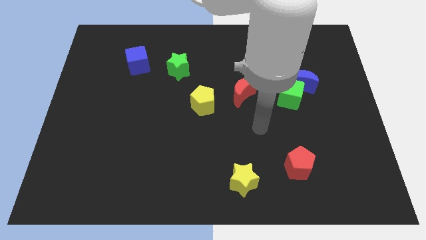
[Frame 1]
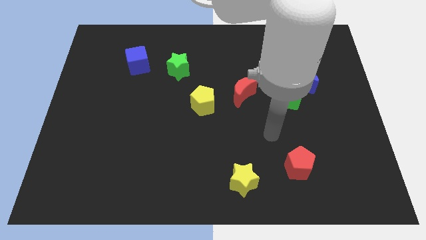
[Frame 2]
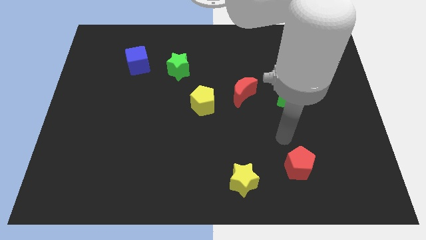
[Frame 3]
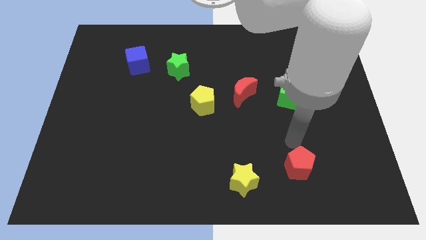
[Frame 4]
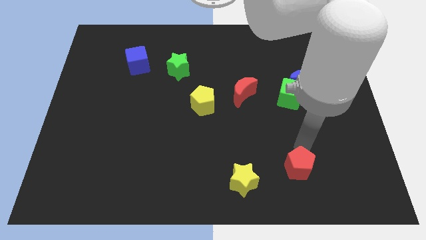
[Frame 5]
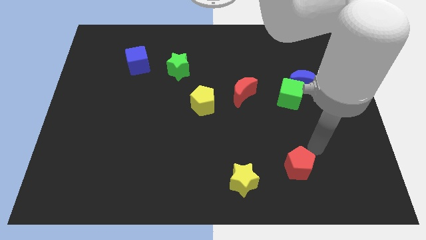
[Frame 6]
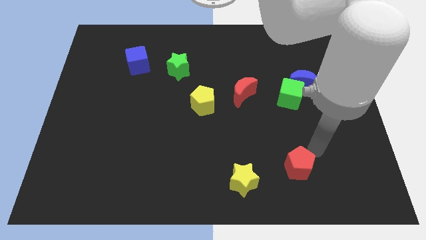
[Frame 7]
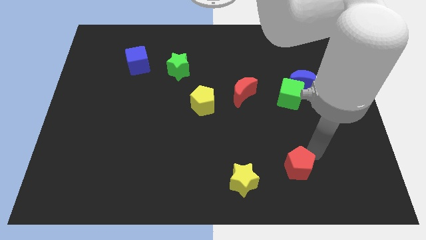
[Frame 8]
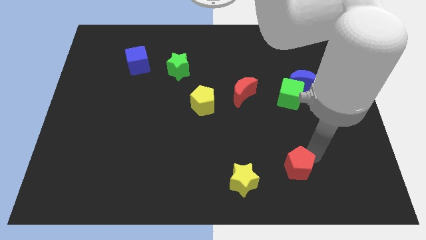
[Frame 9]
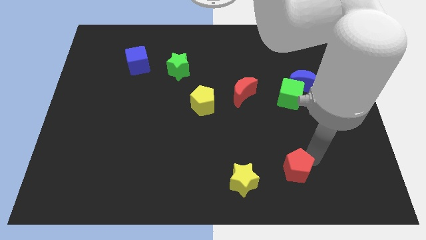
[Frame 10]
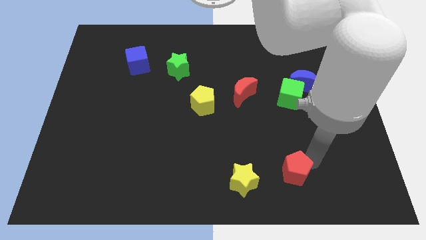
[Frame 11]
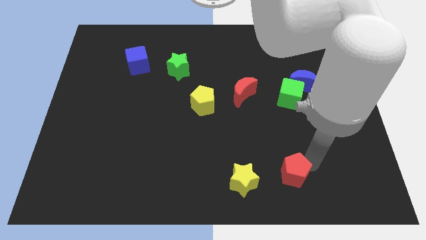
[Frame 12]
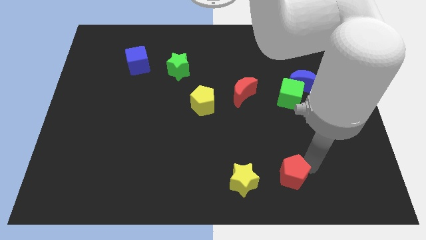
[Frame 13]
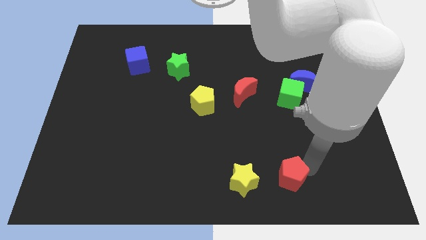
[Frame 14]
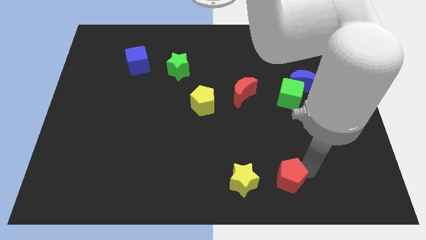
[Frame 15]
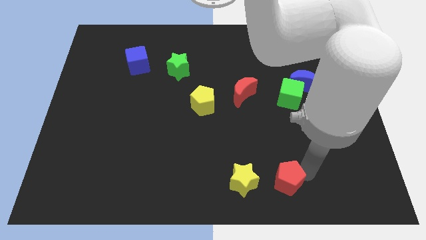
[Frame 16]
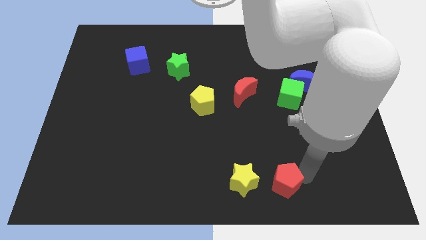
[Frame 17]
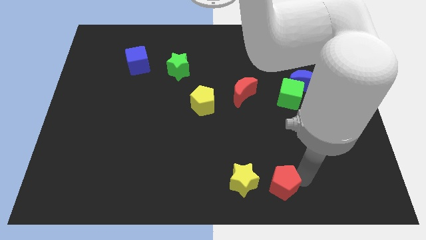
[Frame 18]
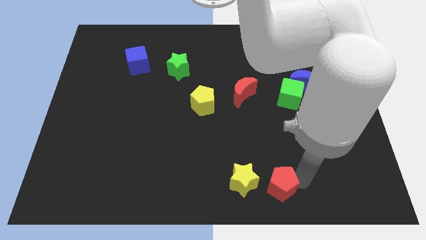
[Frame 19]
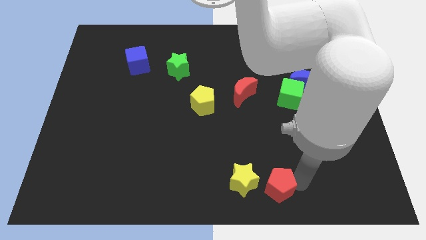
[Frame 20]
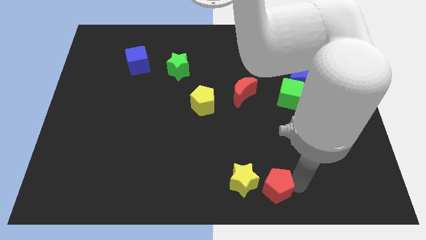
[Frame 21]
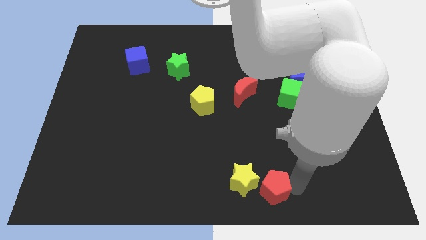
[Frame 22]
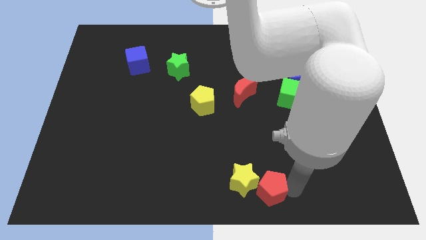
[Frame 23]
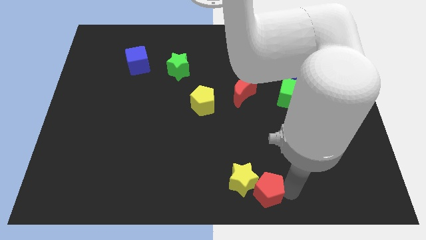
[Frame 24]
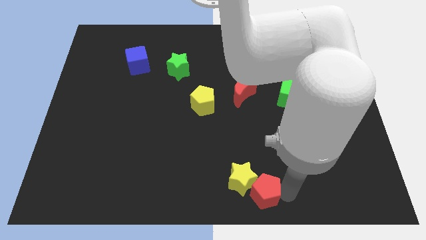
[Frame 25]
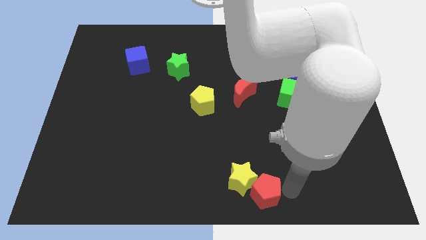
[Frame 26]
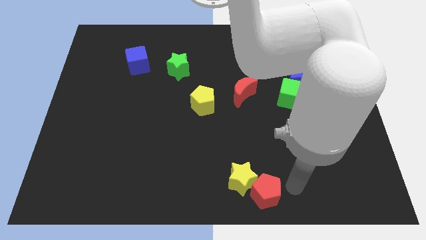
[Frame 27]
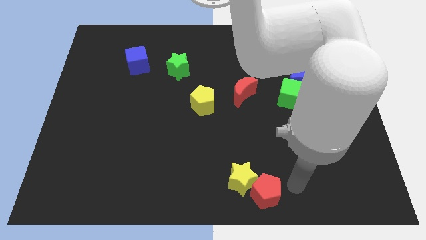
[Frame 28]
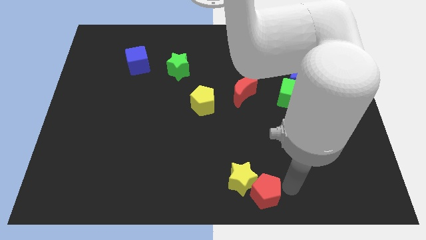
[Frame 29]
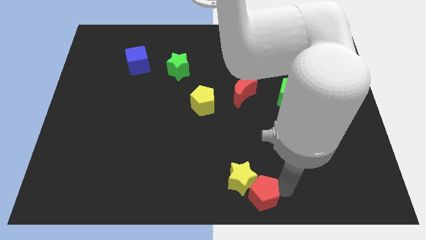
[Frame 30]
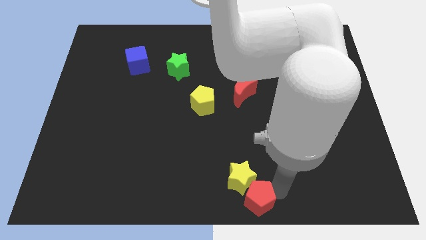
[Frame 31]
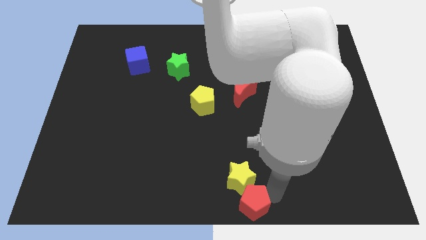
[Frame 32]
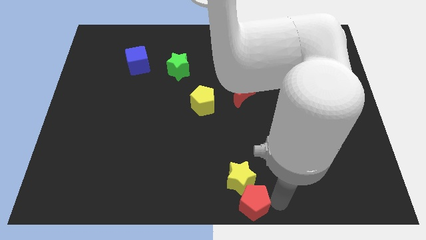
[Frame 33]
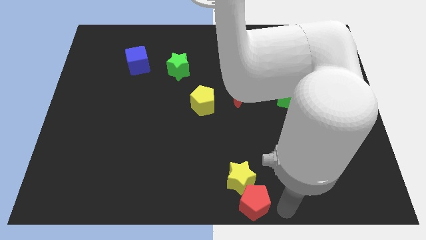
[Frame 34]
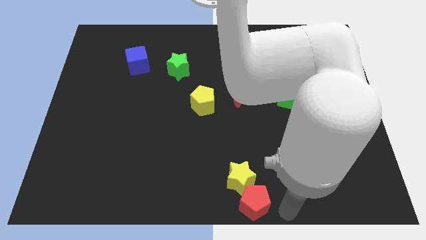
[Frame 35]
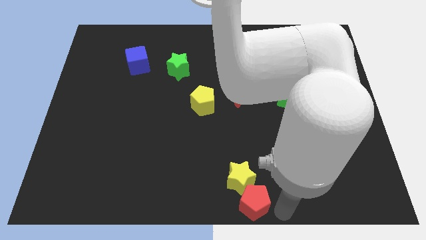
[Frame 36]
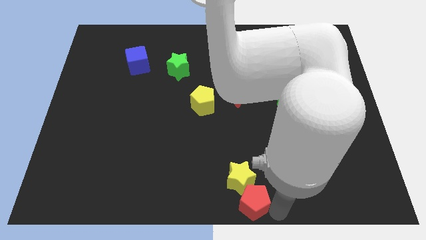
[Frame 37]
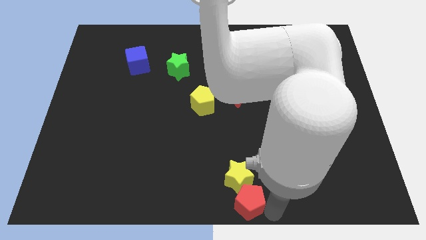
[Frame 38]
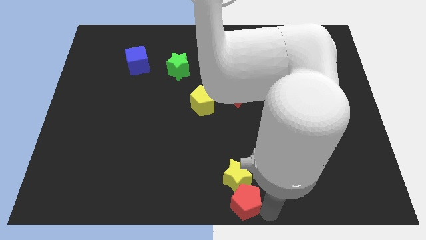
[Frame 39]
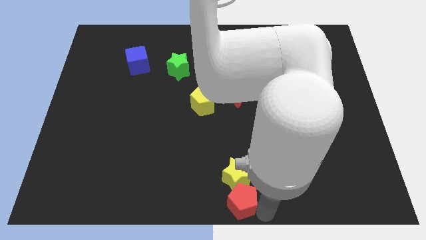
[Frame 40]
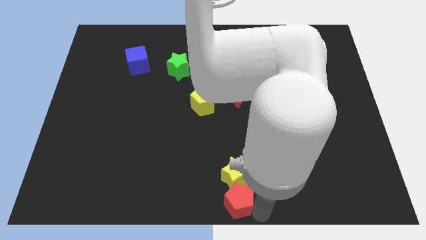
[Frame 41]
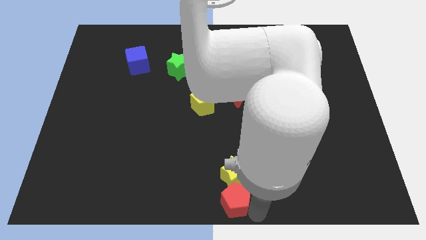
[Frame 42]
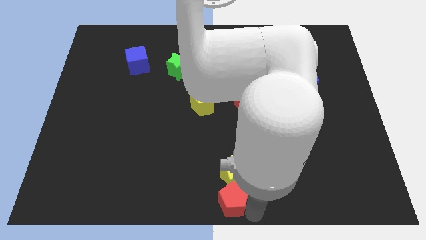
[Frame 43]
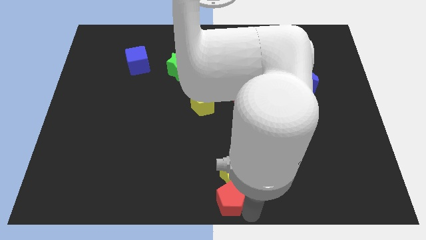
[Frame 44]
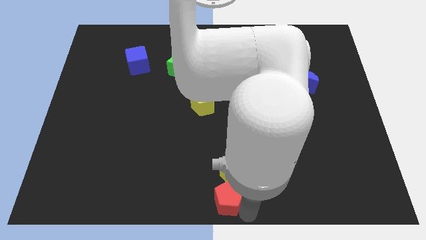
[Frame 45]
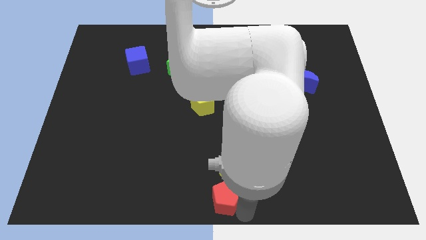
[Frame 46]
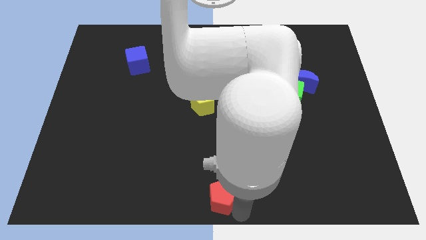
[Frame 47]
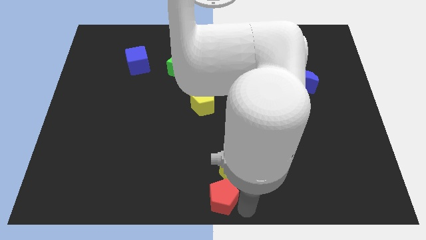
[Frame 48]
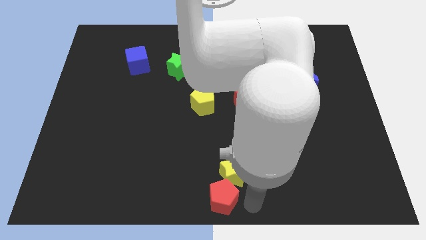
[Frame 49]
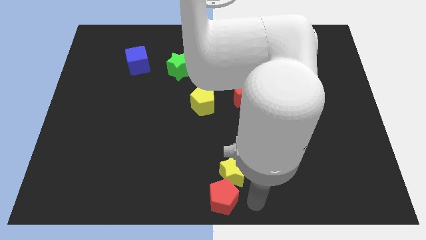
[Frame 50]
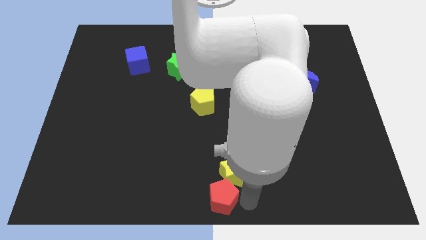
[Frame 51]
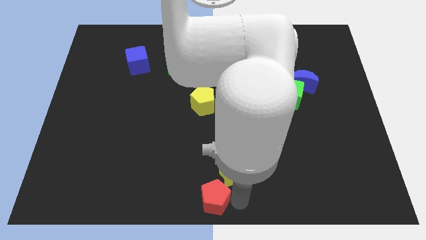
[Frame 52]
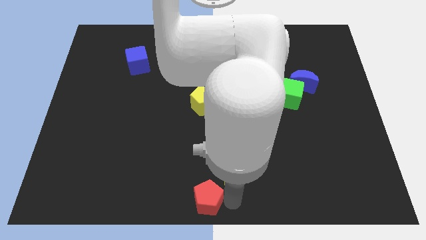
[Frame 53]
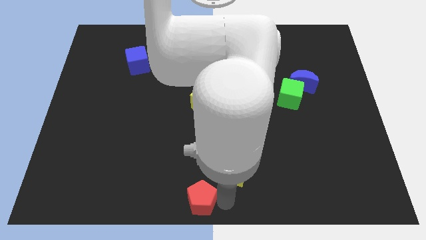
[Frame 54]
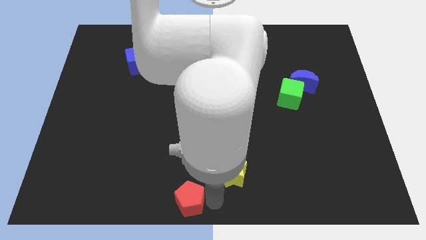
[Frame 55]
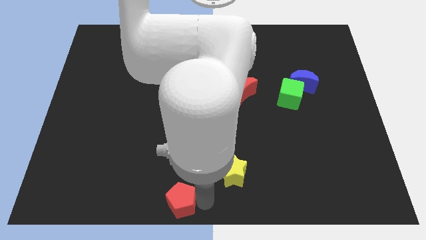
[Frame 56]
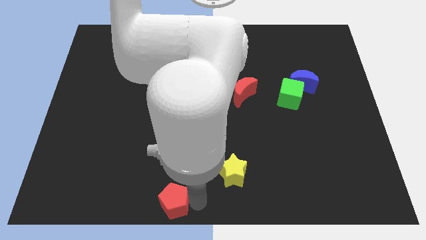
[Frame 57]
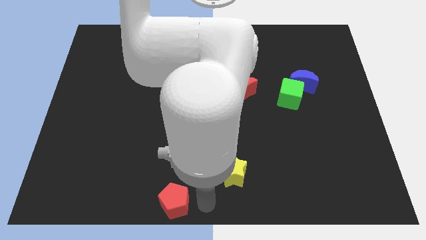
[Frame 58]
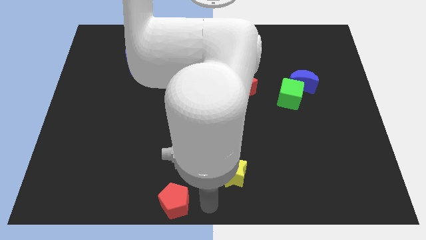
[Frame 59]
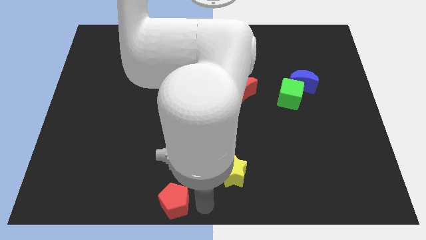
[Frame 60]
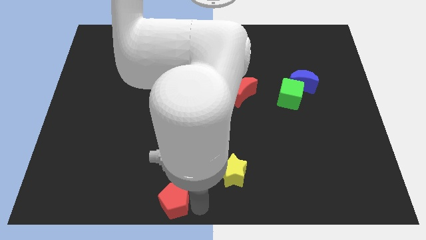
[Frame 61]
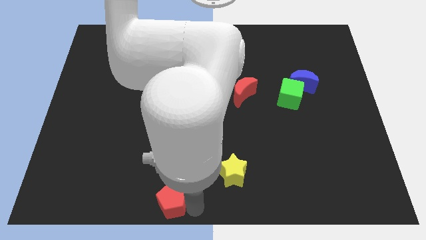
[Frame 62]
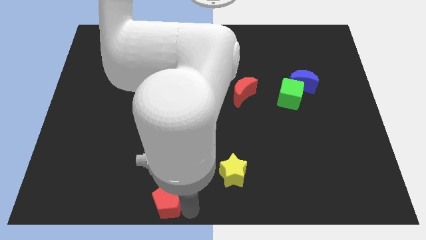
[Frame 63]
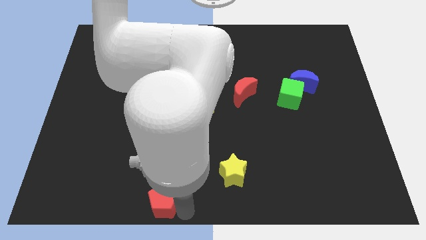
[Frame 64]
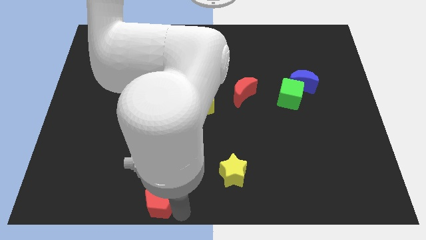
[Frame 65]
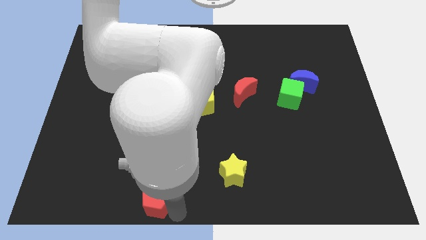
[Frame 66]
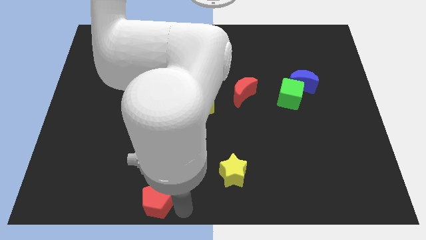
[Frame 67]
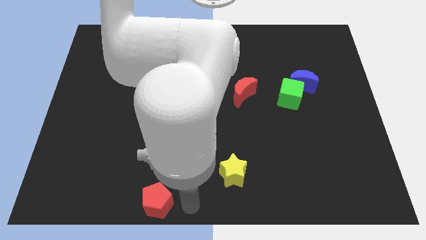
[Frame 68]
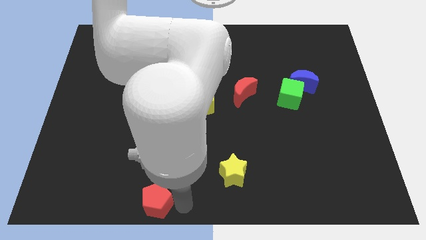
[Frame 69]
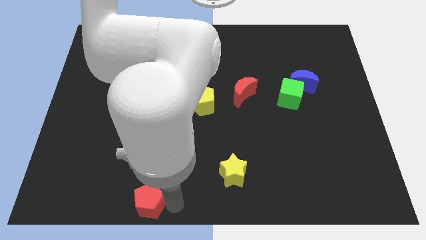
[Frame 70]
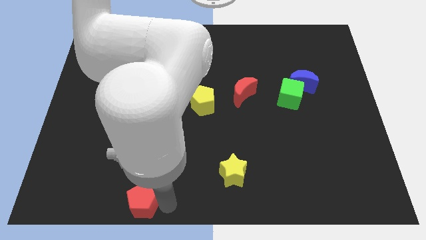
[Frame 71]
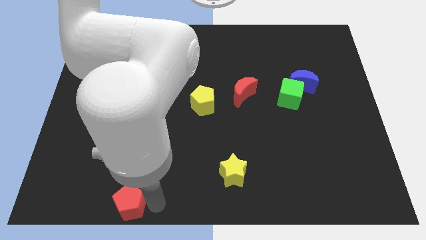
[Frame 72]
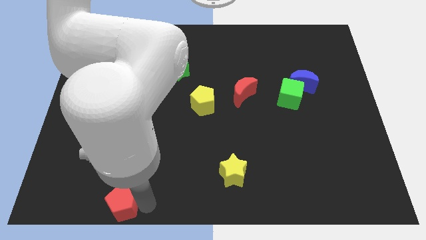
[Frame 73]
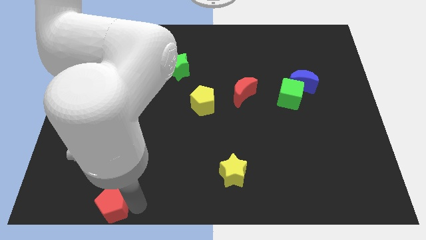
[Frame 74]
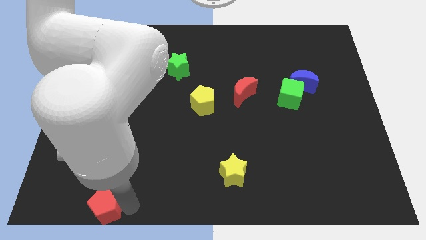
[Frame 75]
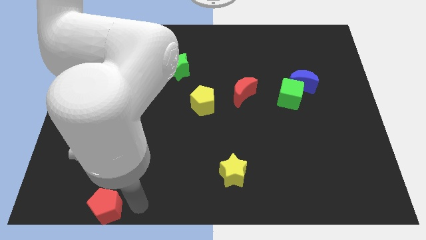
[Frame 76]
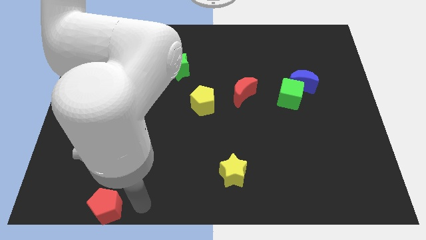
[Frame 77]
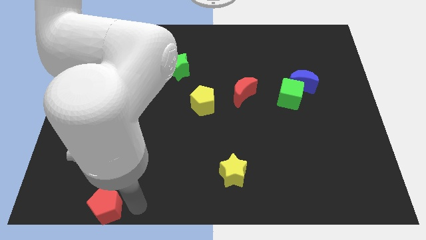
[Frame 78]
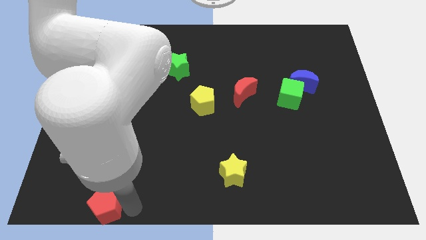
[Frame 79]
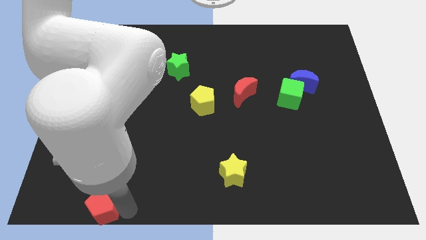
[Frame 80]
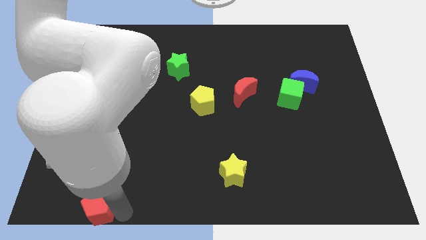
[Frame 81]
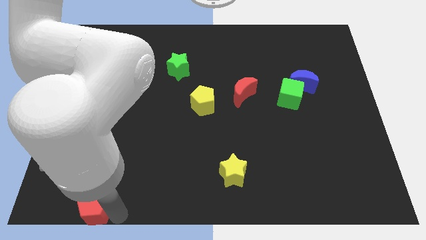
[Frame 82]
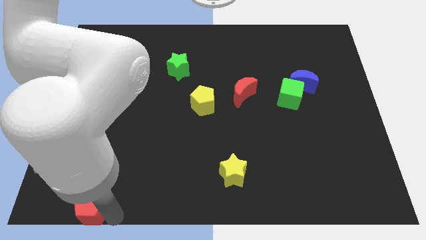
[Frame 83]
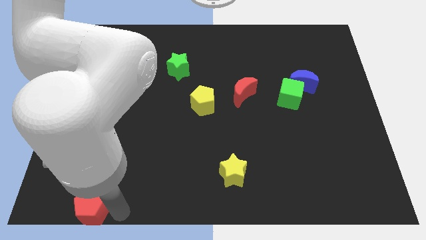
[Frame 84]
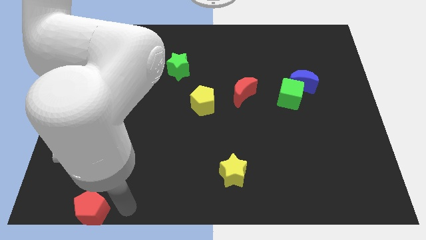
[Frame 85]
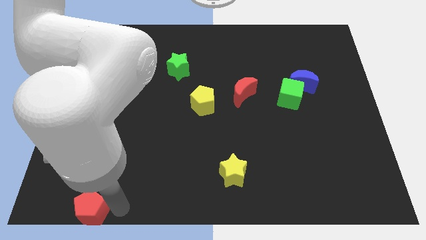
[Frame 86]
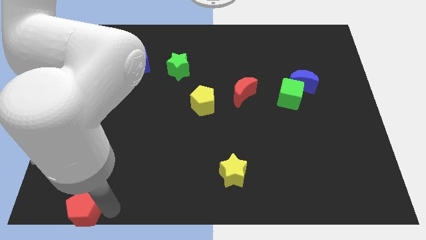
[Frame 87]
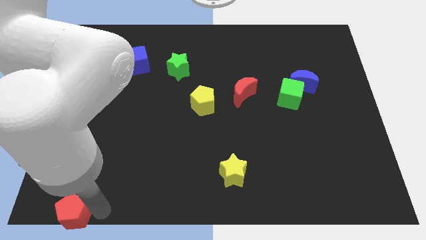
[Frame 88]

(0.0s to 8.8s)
move the red pentagon to the bottom left of the board
